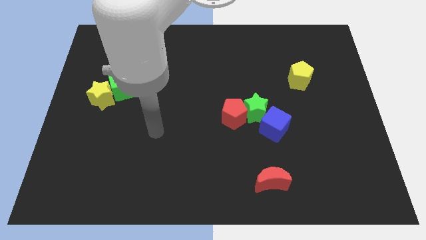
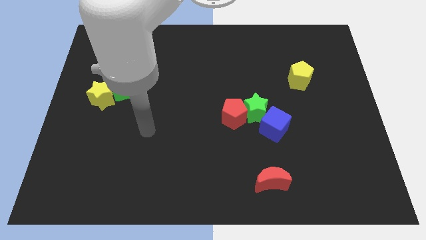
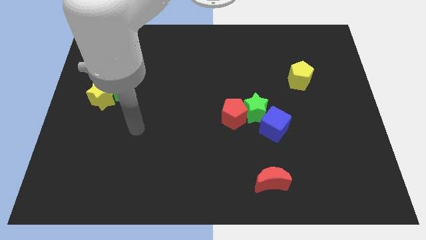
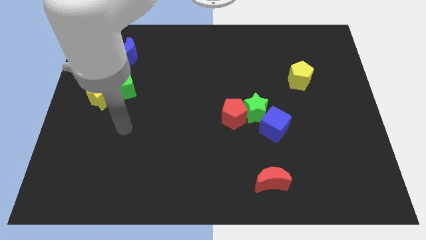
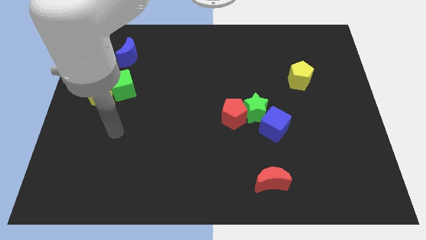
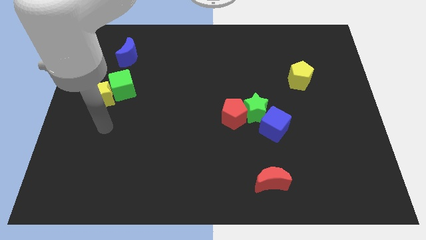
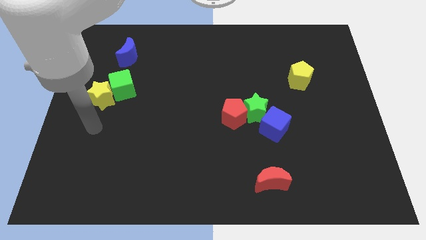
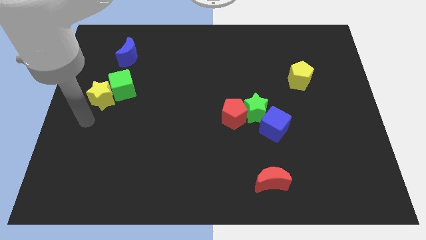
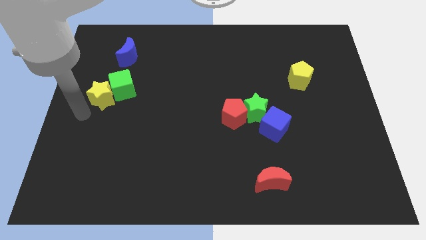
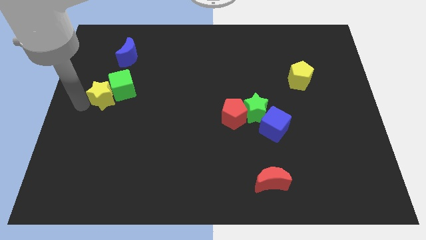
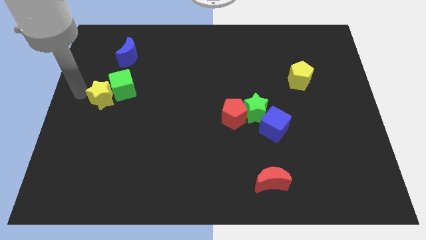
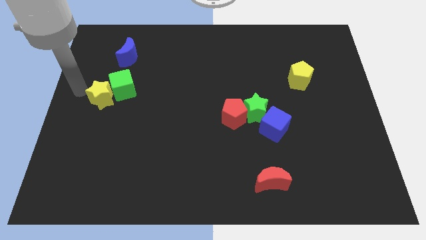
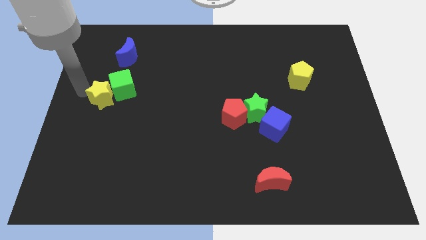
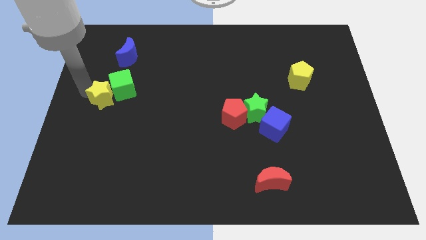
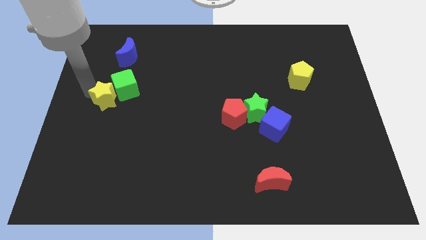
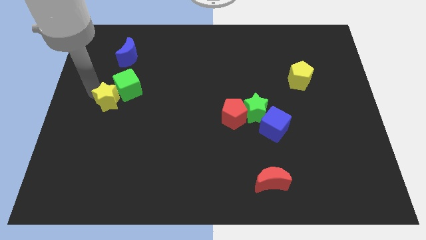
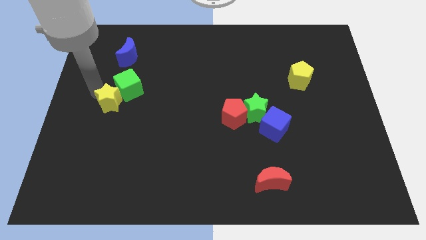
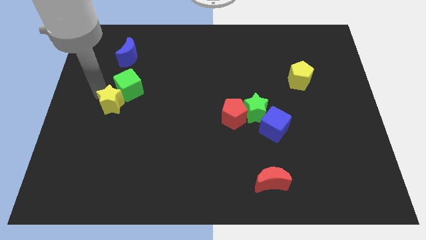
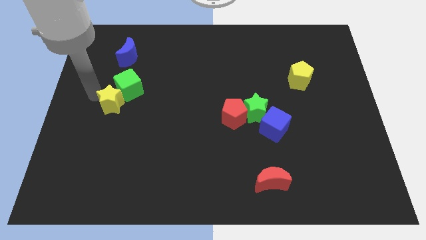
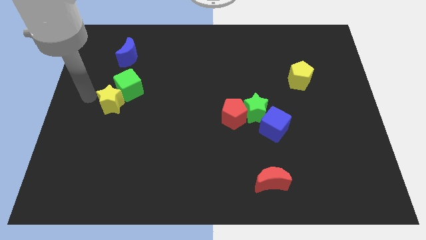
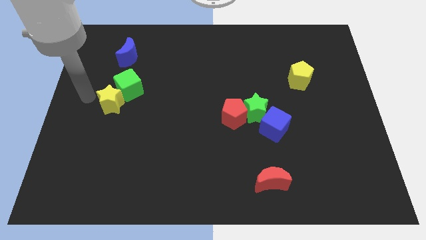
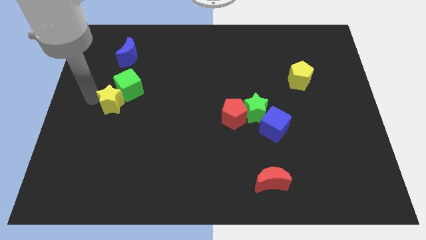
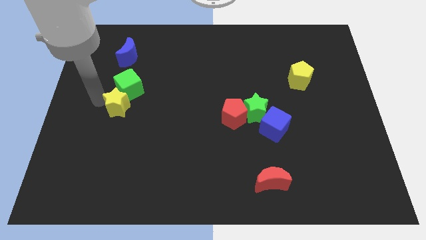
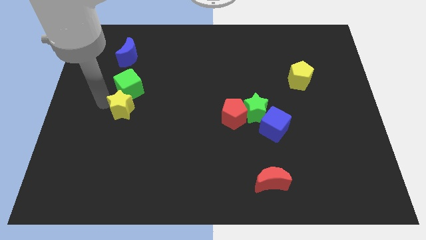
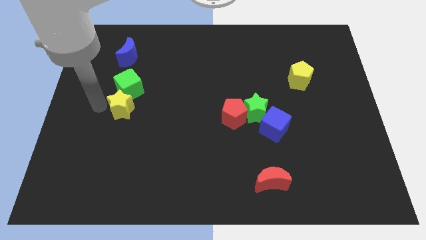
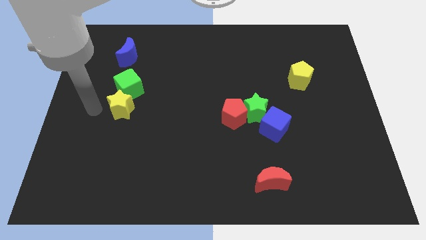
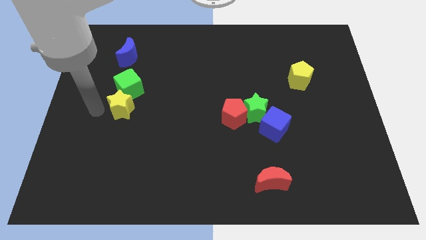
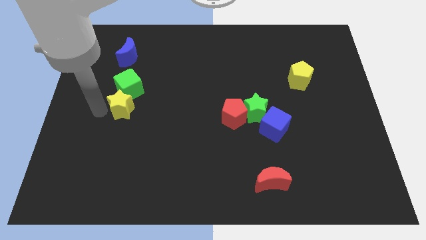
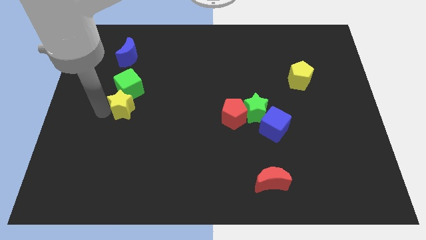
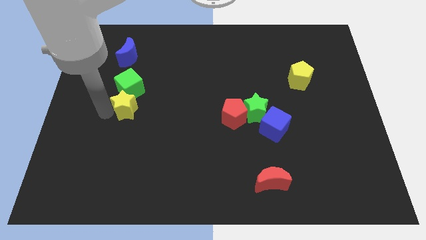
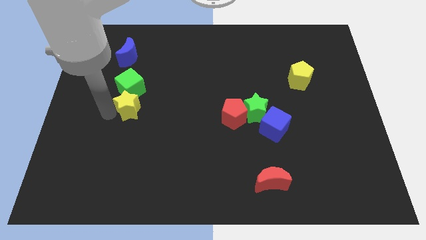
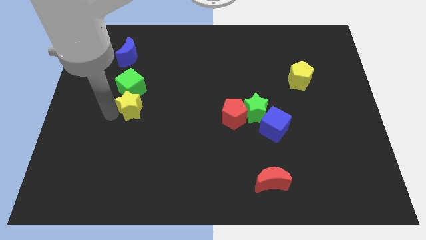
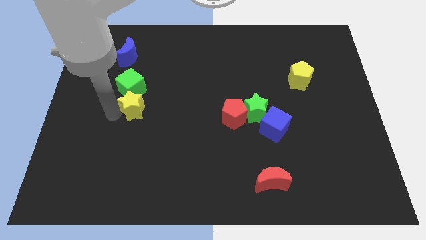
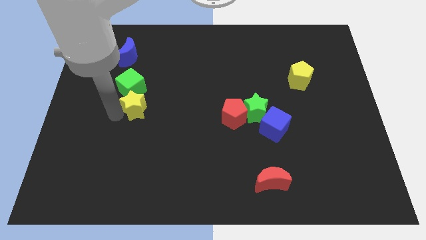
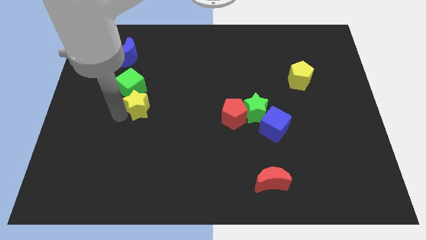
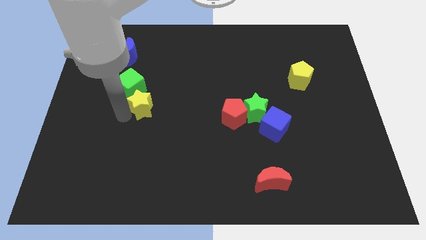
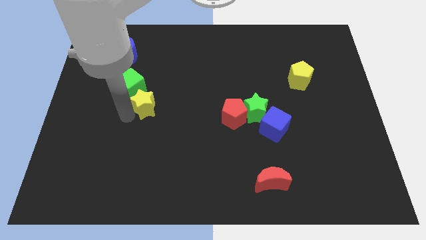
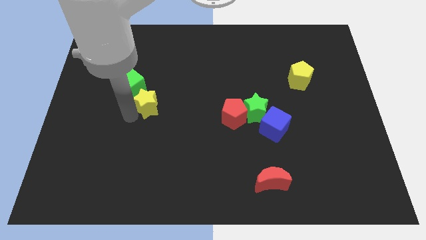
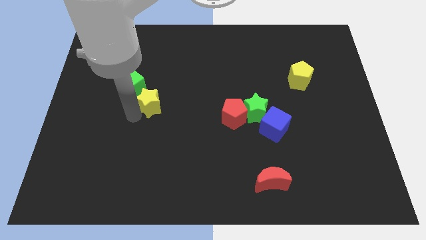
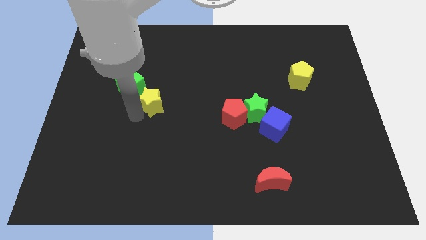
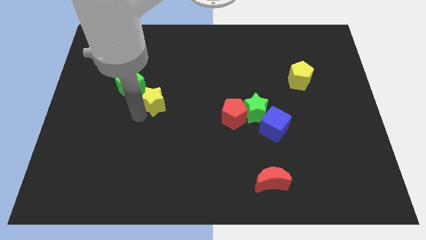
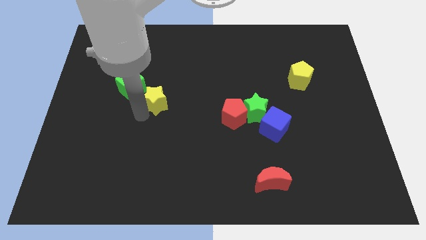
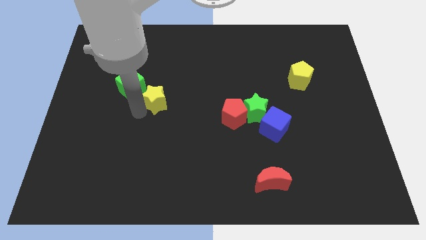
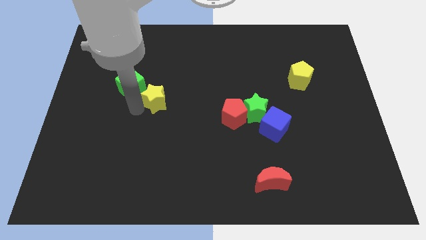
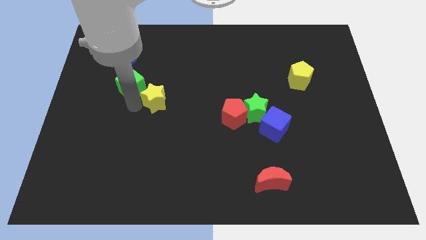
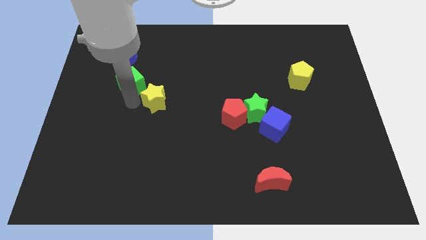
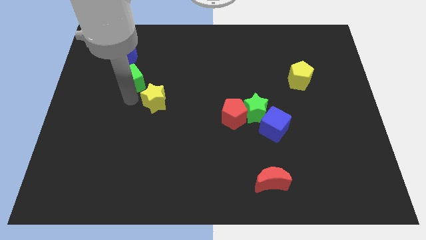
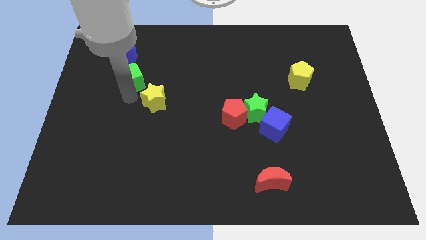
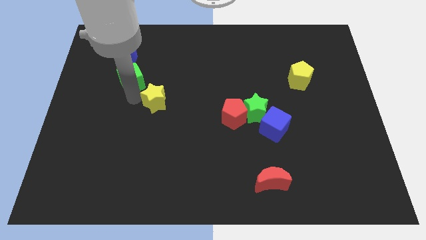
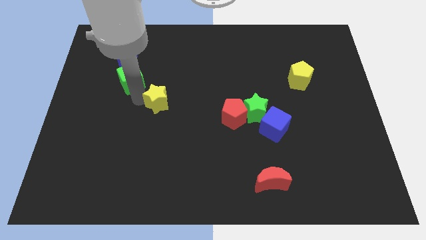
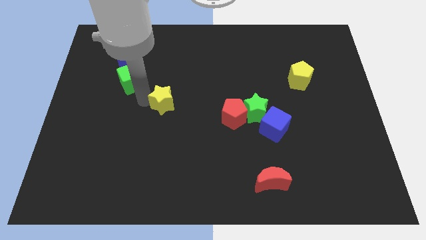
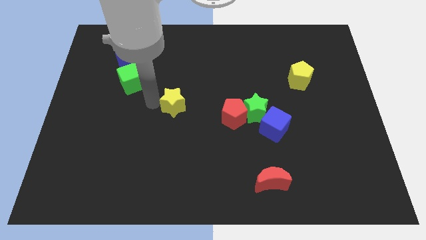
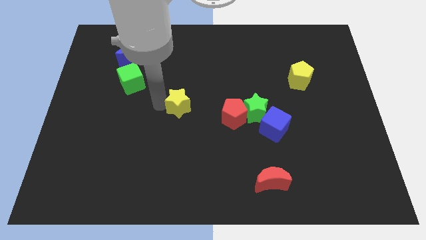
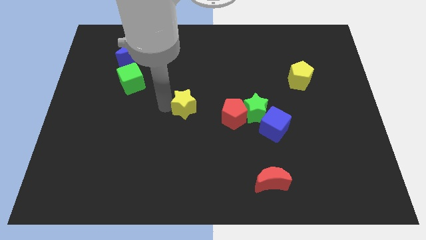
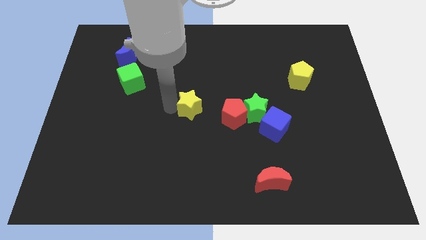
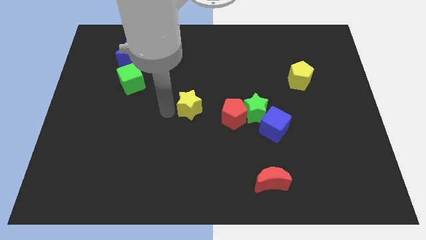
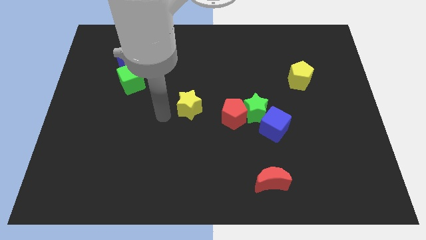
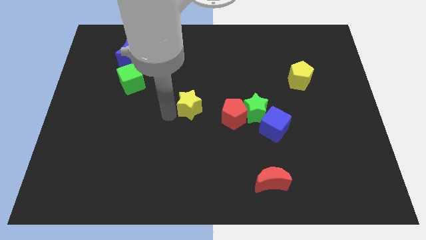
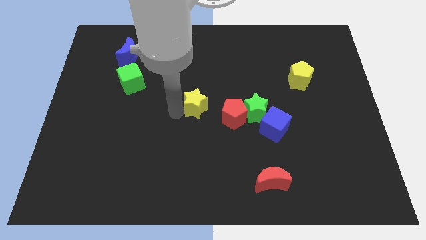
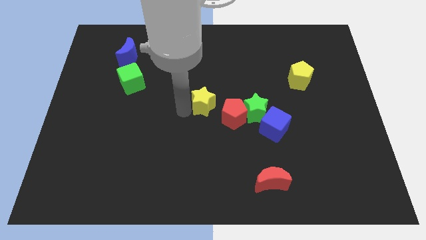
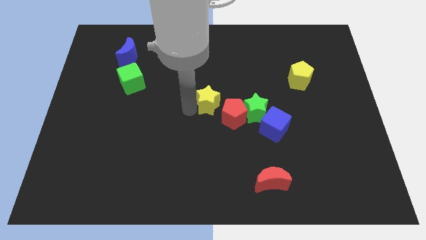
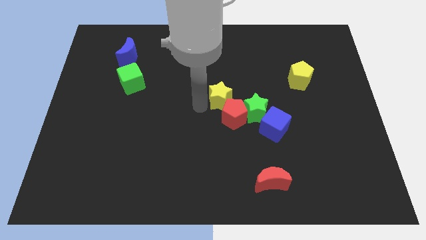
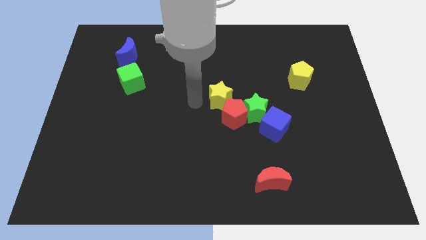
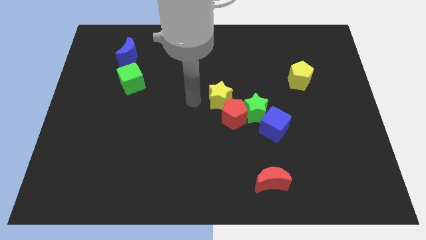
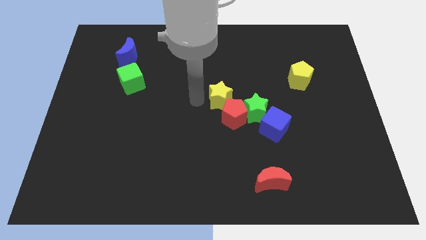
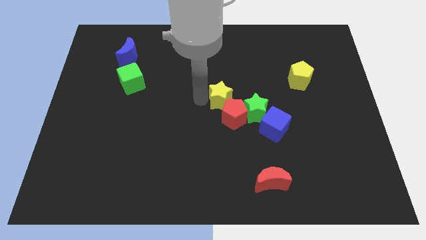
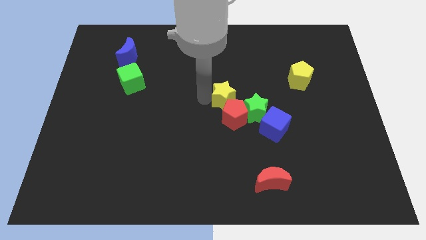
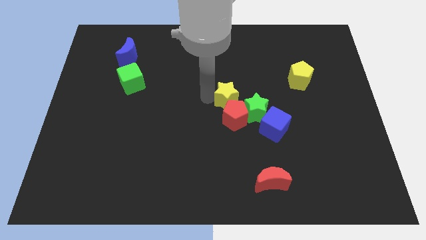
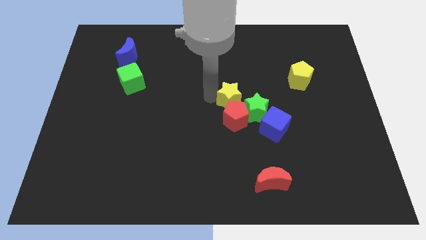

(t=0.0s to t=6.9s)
slide the yellow star diagonally up and to the right of the red pentagon

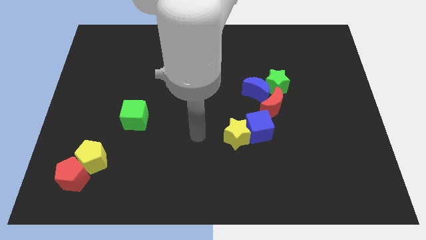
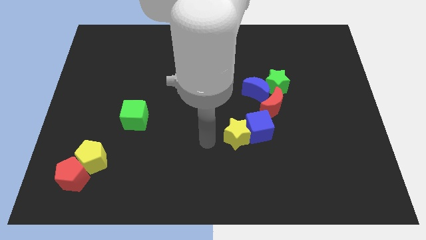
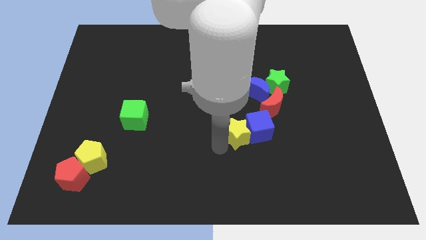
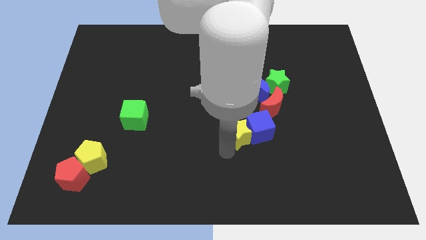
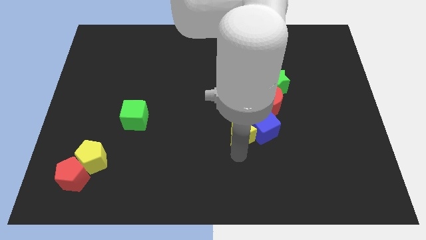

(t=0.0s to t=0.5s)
push the green star above the blue cube
